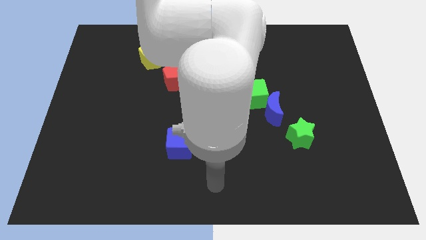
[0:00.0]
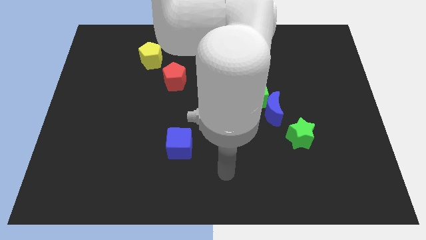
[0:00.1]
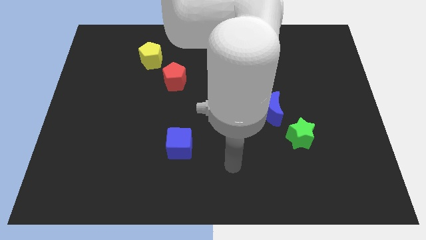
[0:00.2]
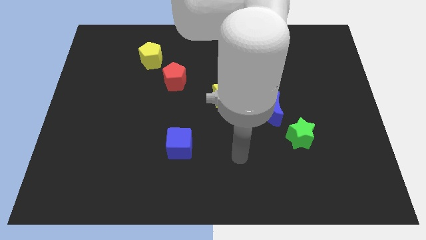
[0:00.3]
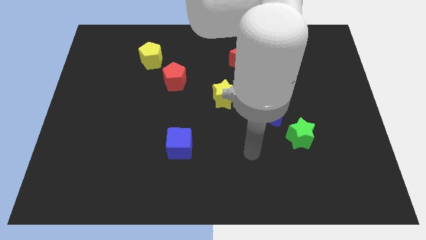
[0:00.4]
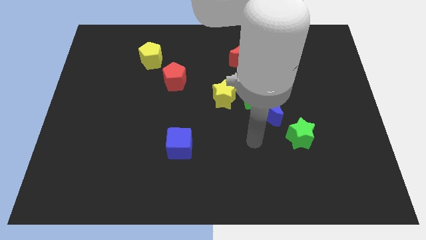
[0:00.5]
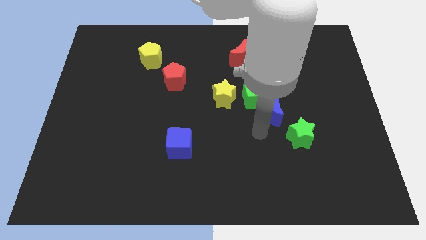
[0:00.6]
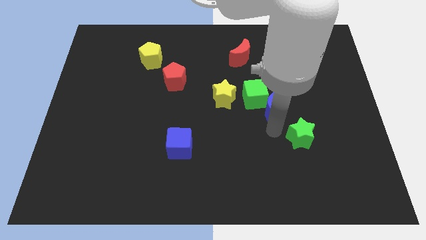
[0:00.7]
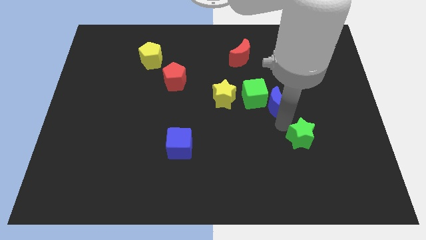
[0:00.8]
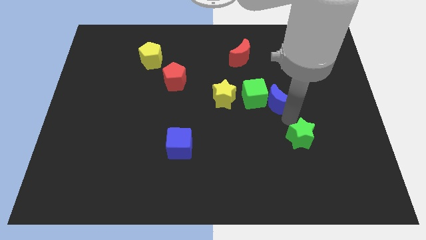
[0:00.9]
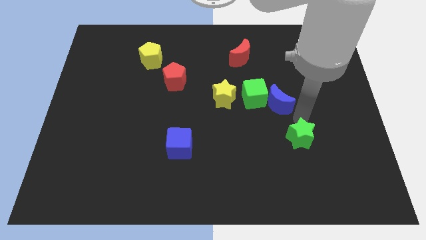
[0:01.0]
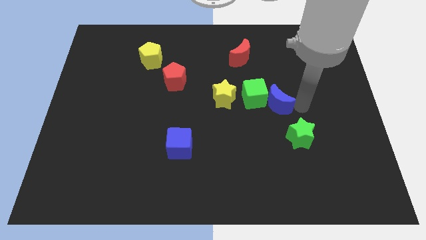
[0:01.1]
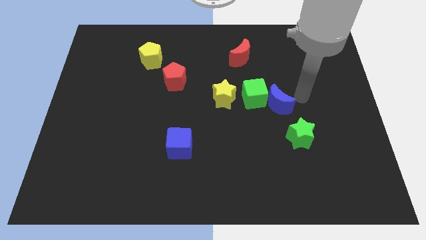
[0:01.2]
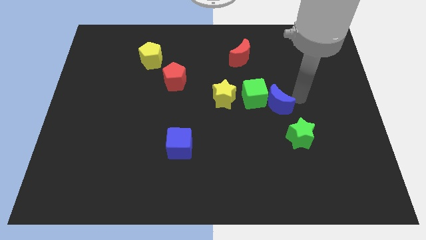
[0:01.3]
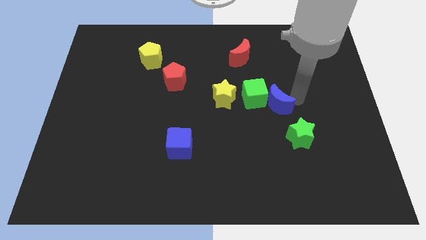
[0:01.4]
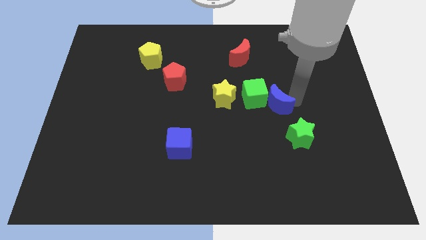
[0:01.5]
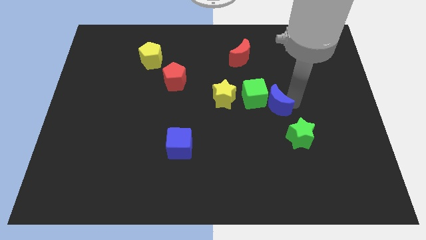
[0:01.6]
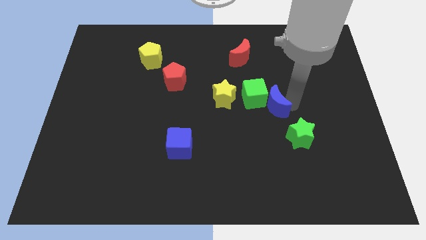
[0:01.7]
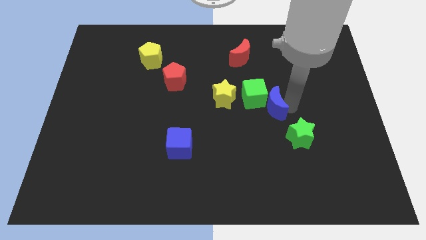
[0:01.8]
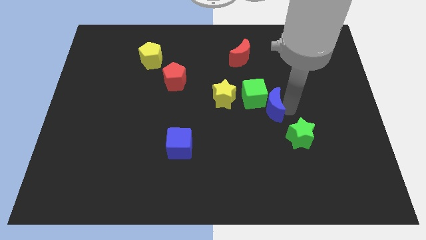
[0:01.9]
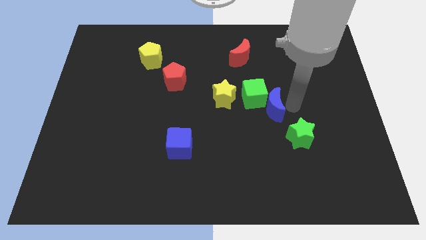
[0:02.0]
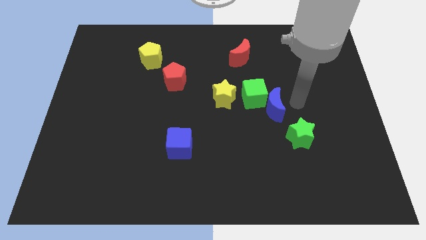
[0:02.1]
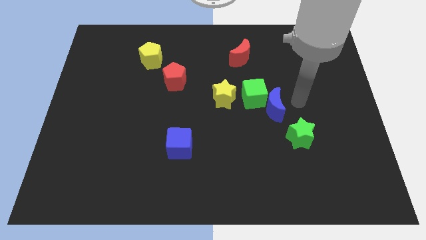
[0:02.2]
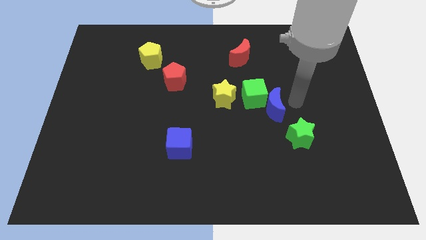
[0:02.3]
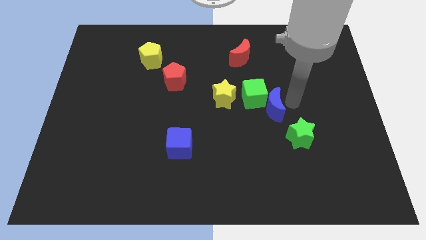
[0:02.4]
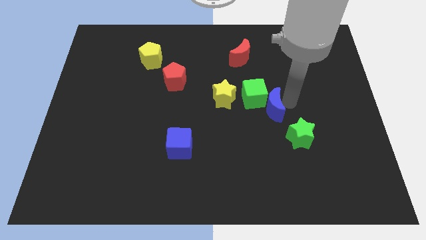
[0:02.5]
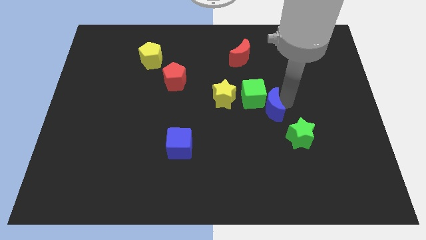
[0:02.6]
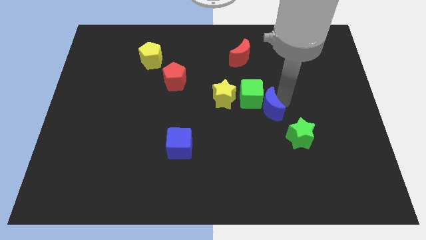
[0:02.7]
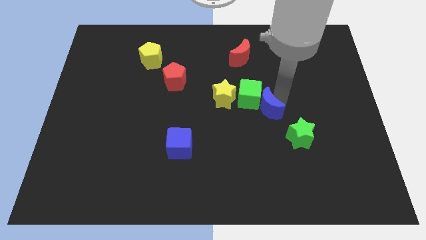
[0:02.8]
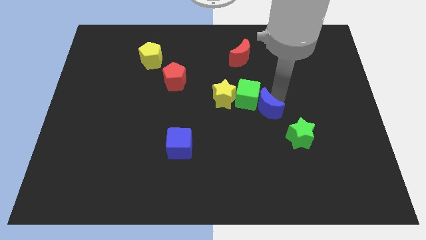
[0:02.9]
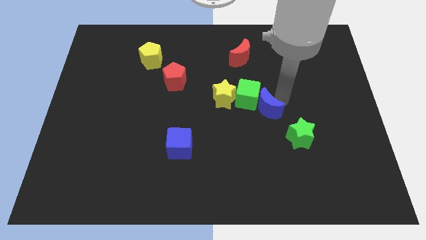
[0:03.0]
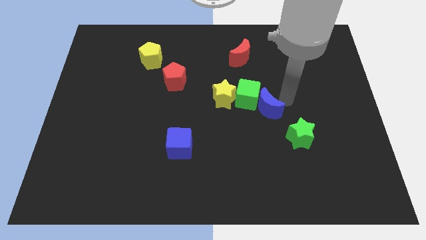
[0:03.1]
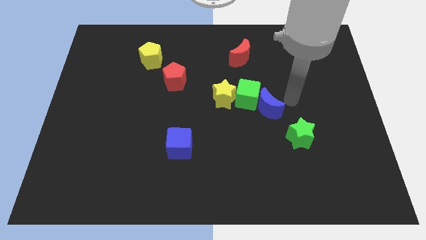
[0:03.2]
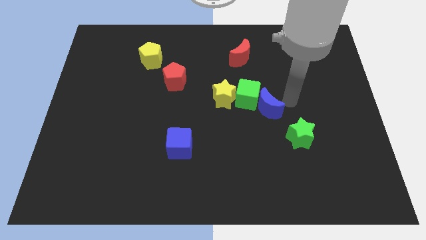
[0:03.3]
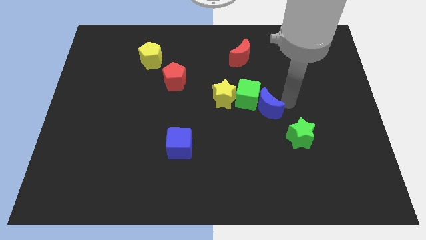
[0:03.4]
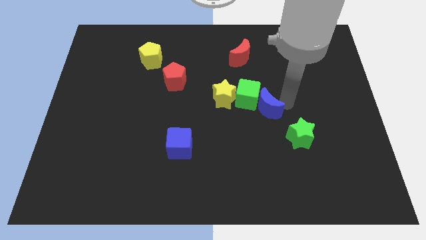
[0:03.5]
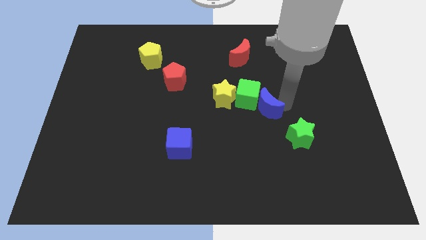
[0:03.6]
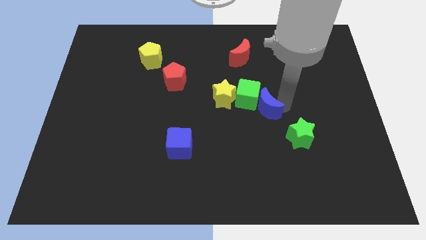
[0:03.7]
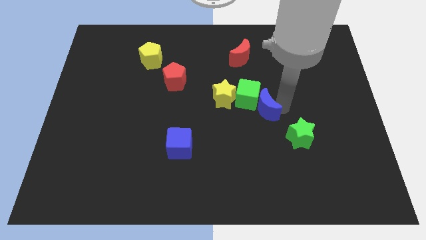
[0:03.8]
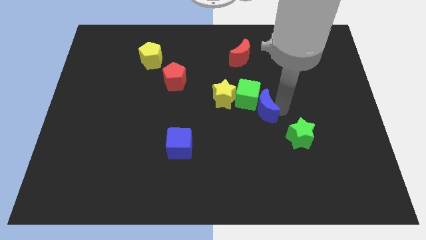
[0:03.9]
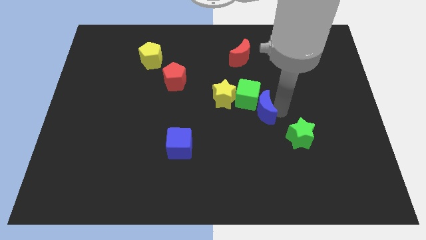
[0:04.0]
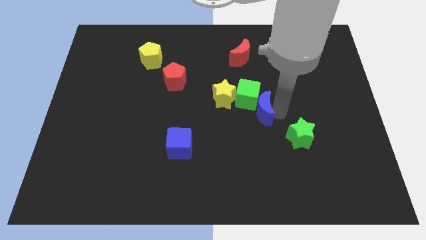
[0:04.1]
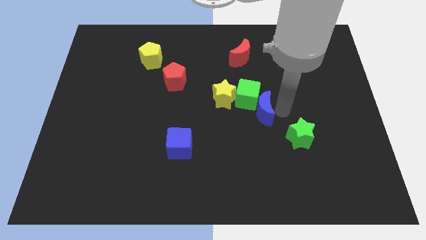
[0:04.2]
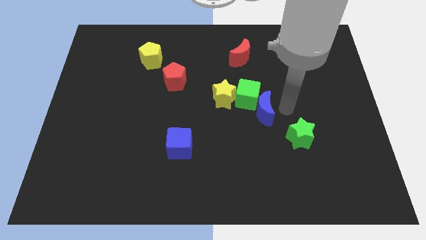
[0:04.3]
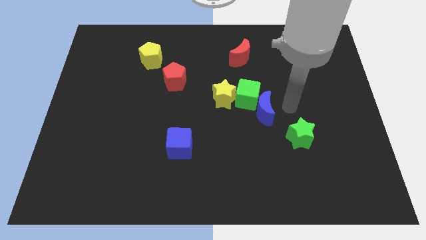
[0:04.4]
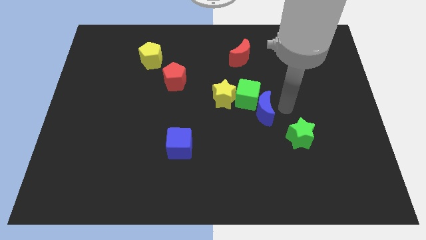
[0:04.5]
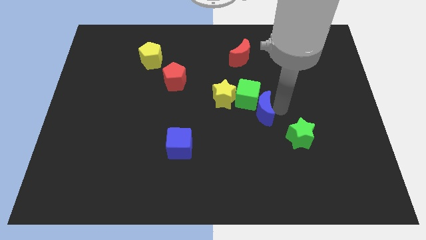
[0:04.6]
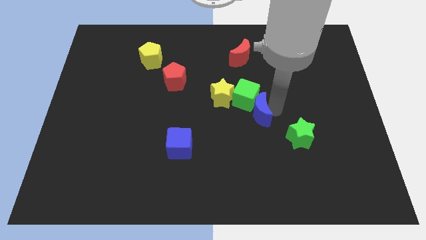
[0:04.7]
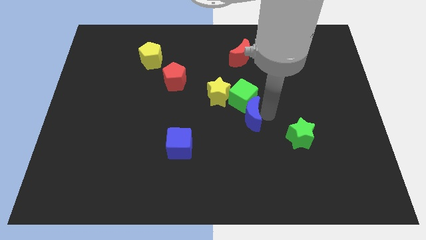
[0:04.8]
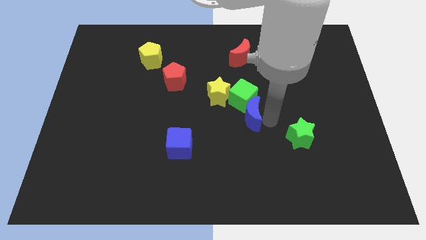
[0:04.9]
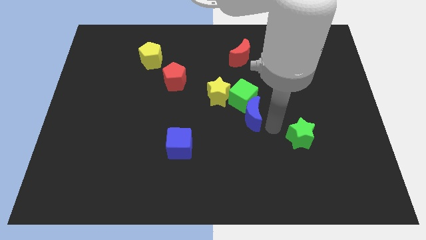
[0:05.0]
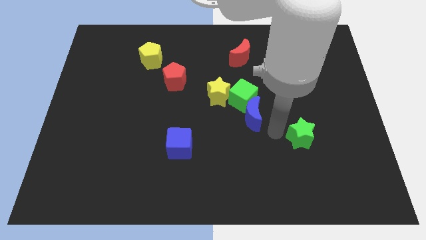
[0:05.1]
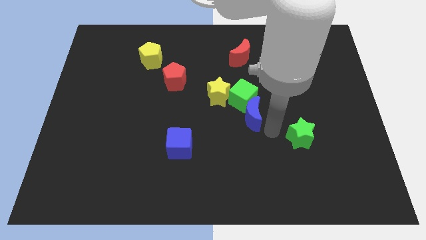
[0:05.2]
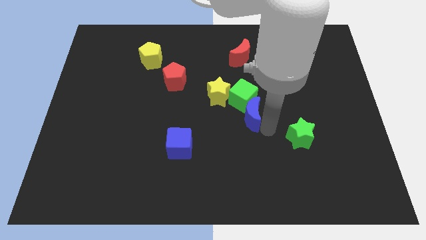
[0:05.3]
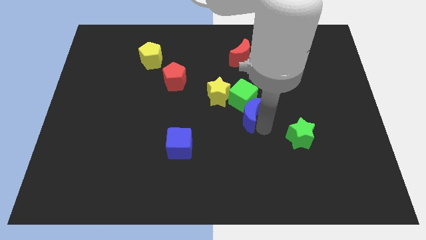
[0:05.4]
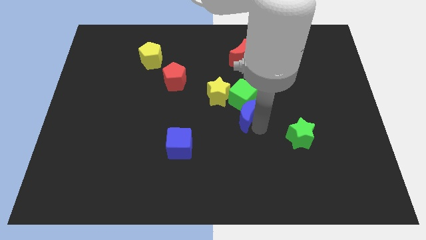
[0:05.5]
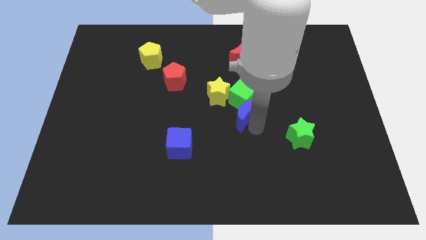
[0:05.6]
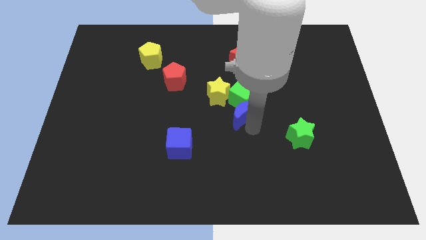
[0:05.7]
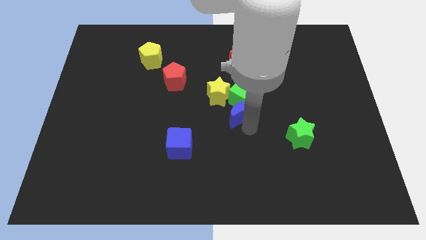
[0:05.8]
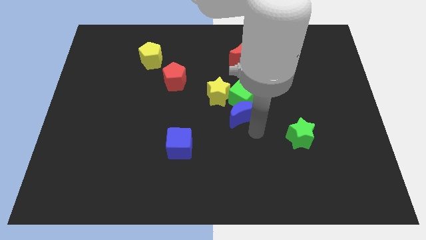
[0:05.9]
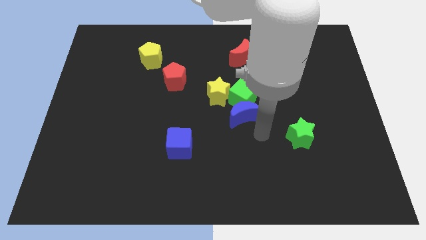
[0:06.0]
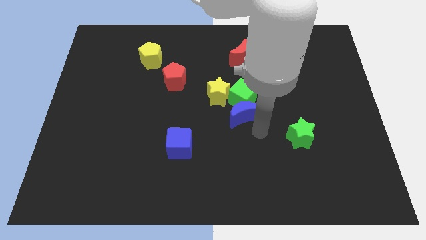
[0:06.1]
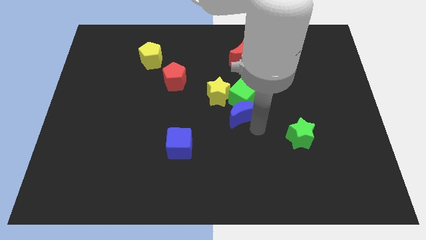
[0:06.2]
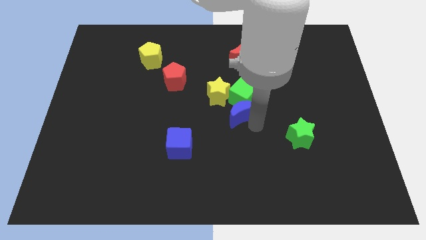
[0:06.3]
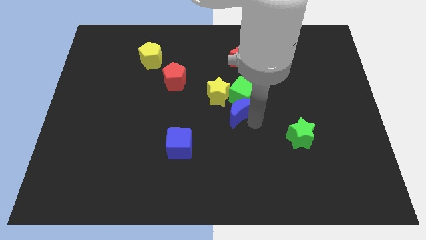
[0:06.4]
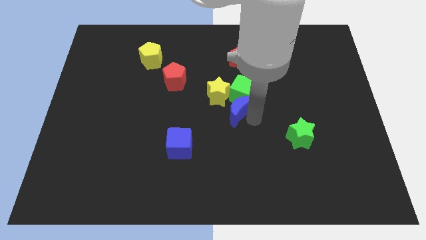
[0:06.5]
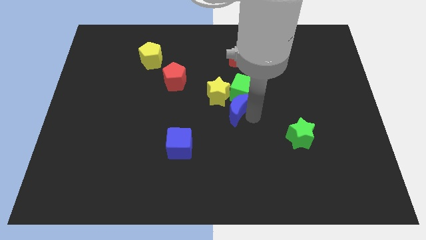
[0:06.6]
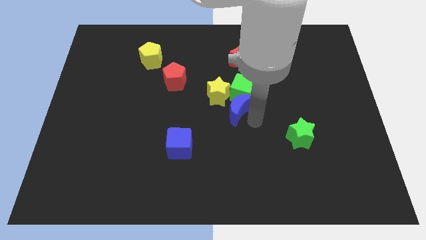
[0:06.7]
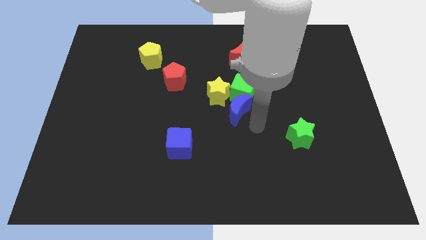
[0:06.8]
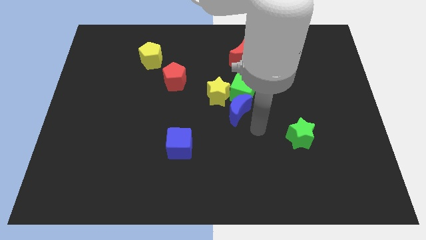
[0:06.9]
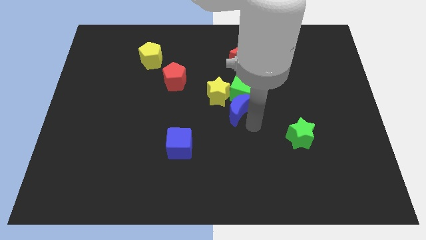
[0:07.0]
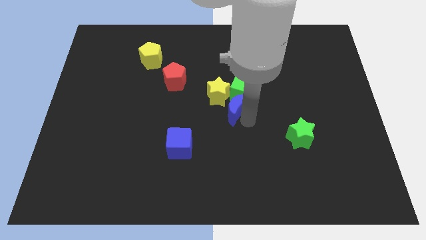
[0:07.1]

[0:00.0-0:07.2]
push the blue moon close to the yellow star

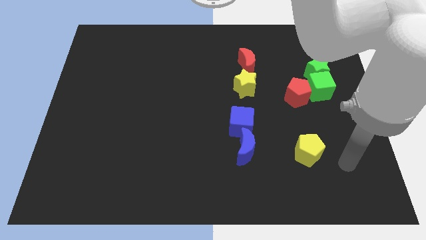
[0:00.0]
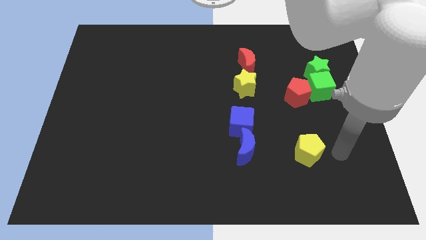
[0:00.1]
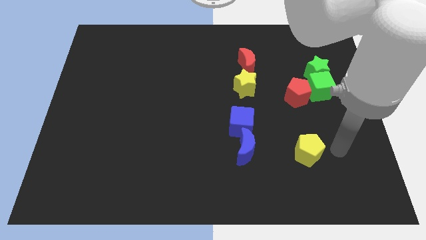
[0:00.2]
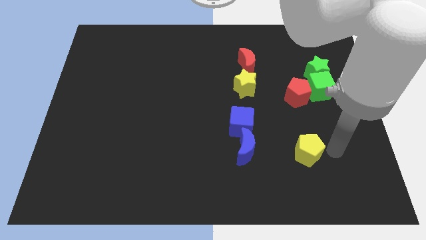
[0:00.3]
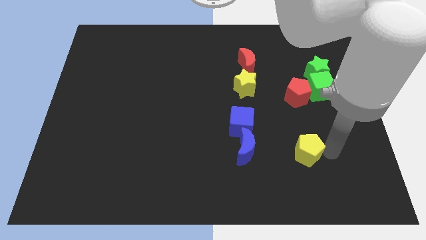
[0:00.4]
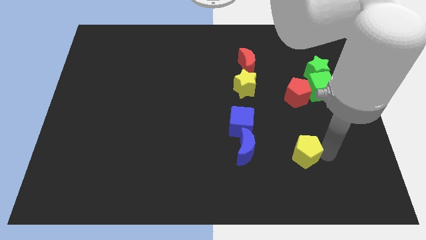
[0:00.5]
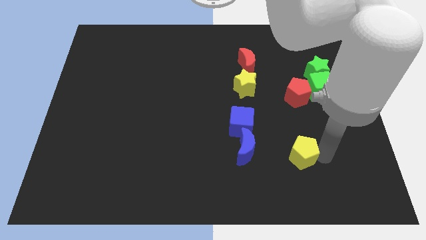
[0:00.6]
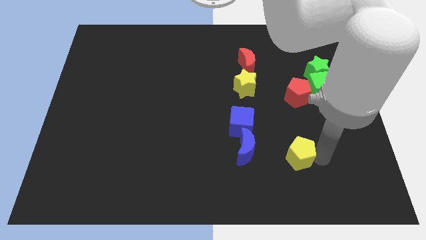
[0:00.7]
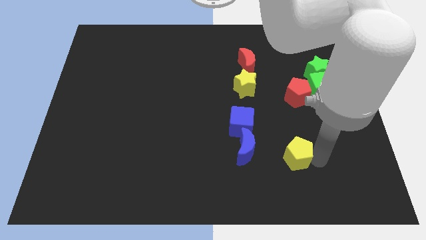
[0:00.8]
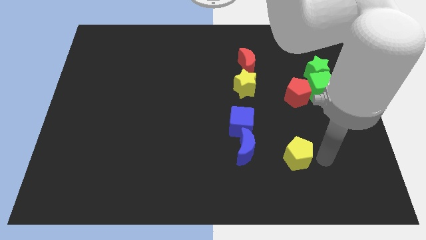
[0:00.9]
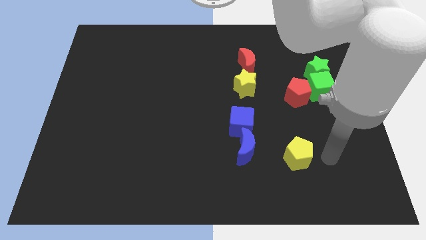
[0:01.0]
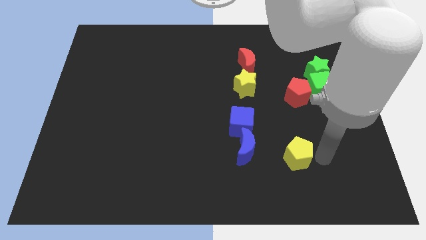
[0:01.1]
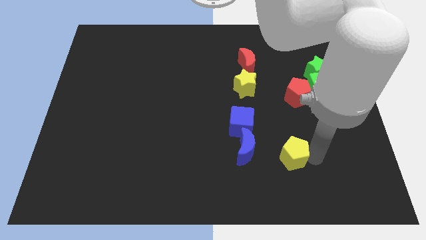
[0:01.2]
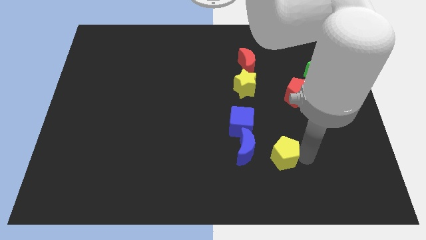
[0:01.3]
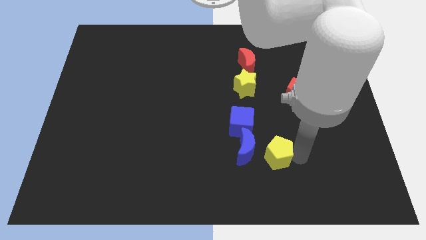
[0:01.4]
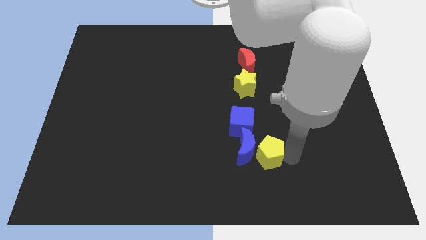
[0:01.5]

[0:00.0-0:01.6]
move the yellow pentagon to the blue moon
